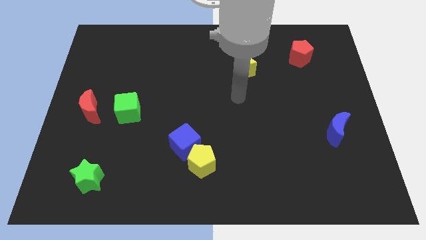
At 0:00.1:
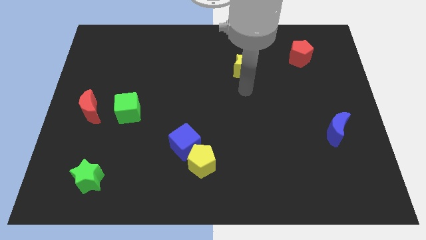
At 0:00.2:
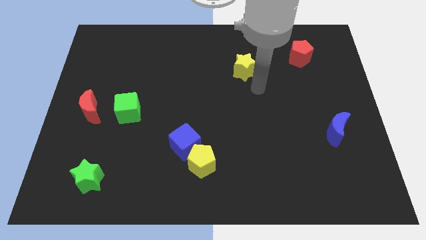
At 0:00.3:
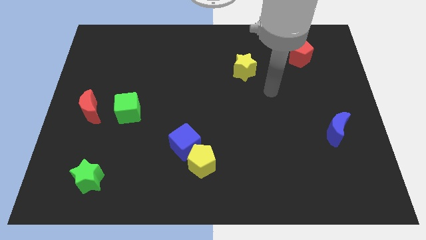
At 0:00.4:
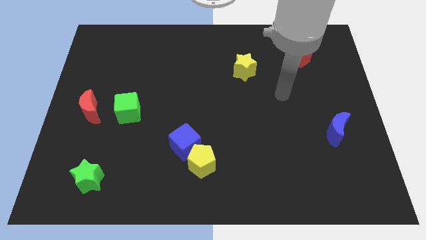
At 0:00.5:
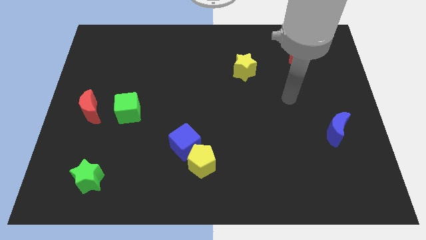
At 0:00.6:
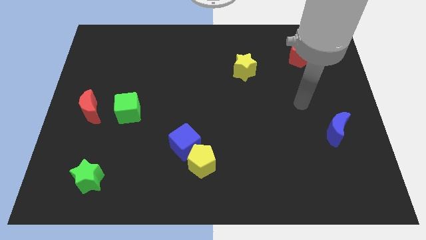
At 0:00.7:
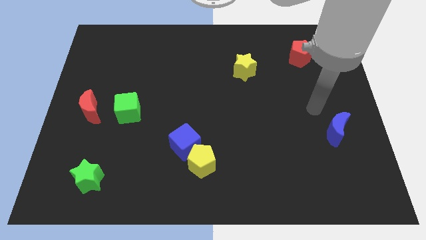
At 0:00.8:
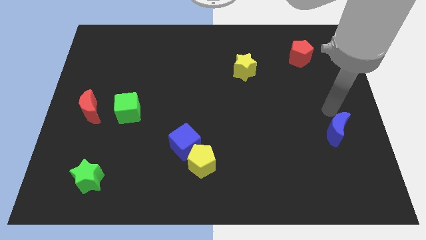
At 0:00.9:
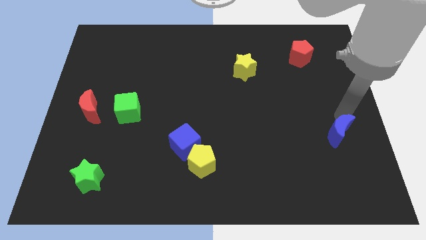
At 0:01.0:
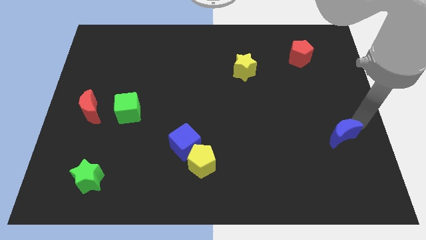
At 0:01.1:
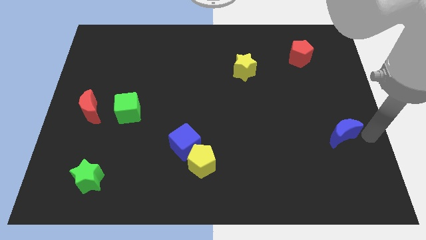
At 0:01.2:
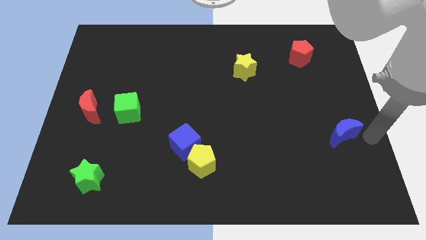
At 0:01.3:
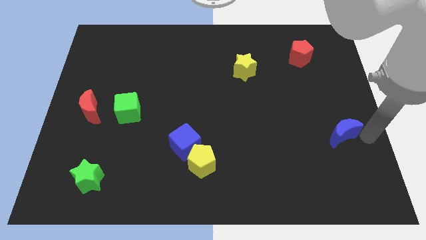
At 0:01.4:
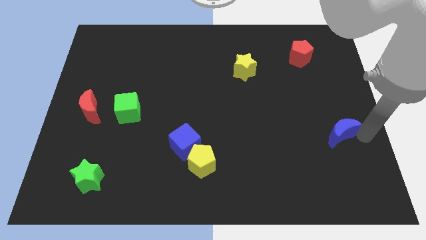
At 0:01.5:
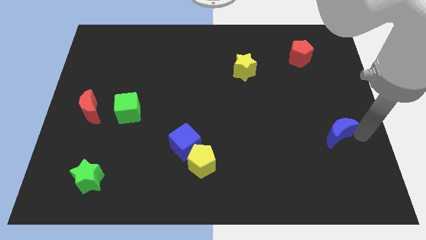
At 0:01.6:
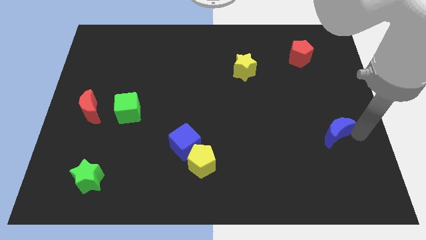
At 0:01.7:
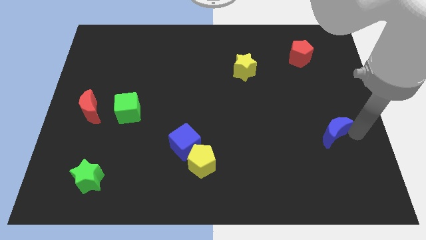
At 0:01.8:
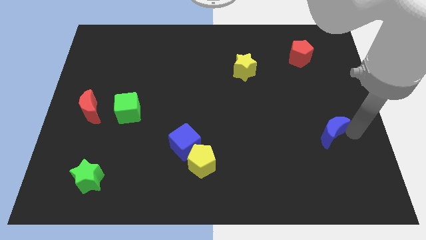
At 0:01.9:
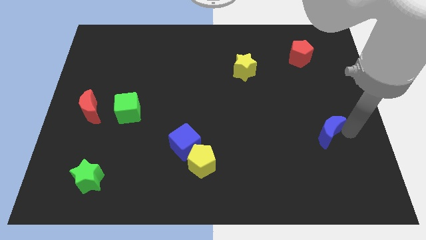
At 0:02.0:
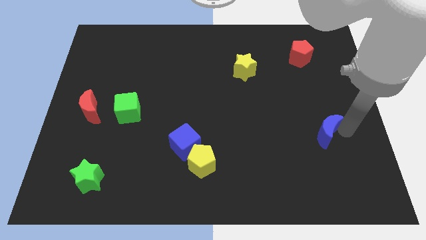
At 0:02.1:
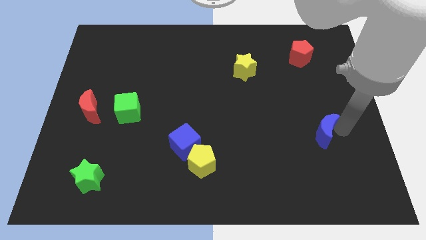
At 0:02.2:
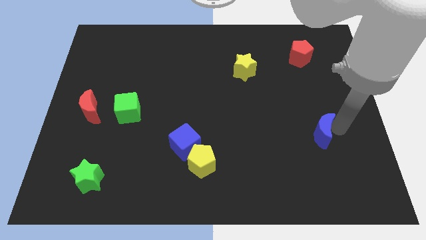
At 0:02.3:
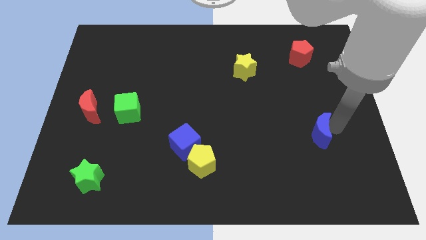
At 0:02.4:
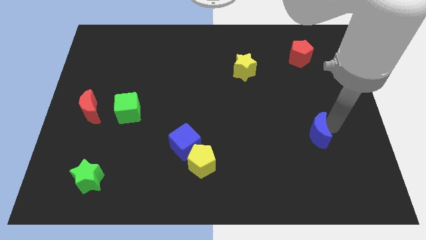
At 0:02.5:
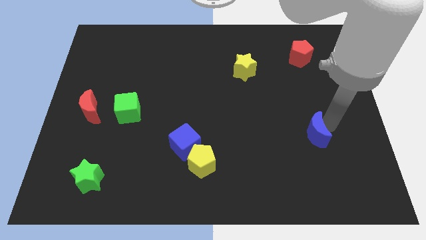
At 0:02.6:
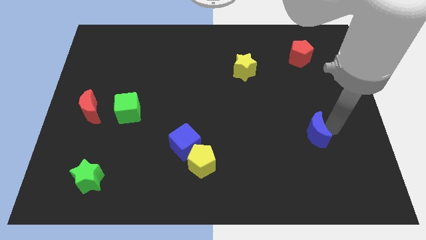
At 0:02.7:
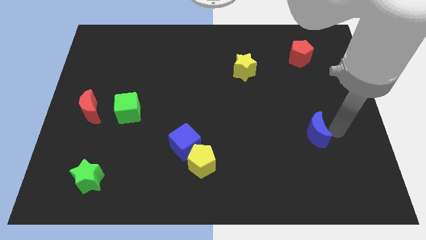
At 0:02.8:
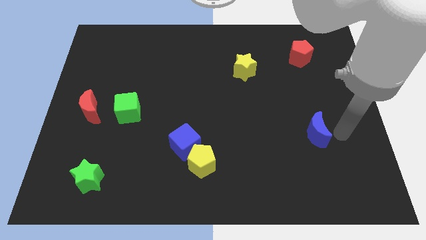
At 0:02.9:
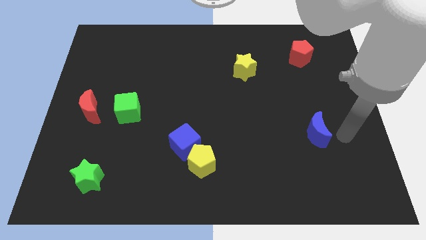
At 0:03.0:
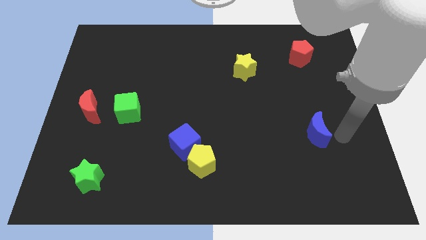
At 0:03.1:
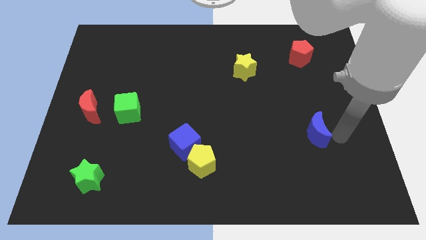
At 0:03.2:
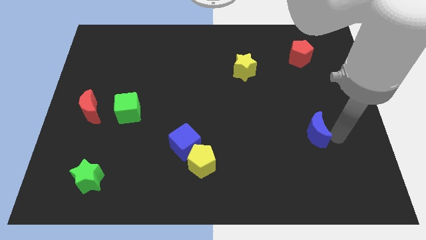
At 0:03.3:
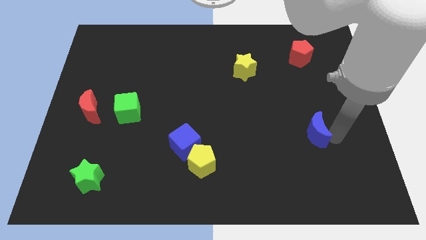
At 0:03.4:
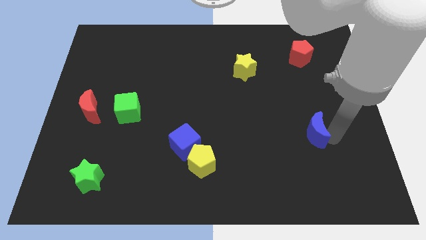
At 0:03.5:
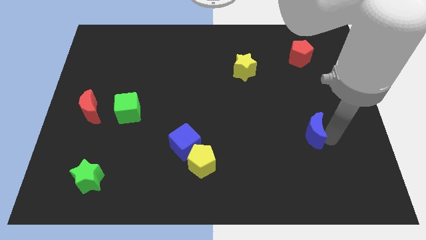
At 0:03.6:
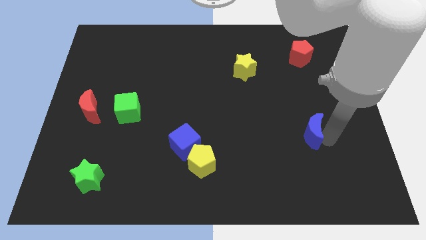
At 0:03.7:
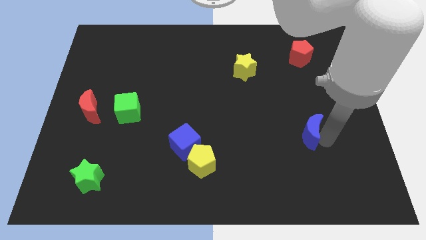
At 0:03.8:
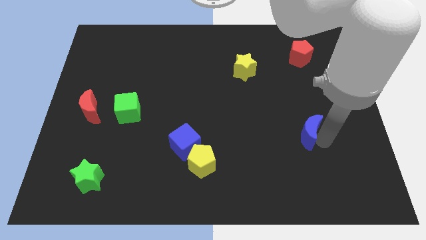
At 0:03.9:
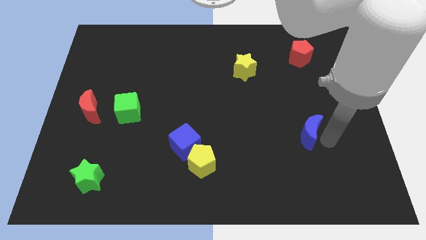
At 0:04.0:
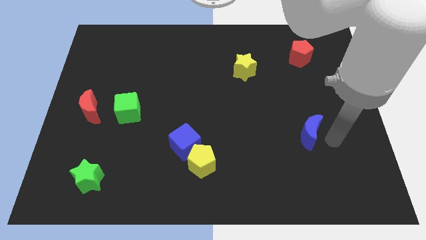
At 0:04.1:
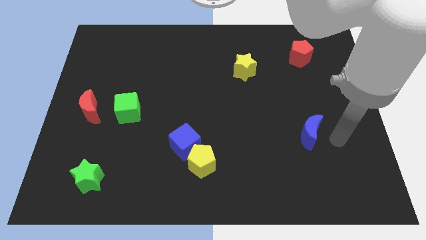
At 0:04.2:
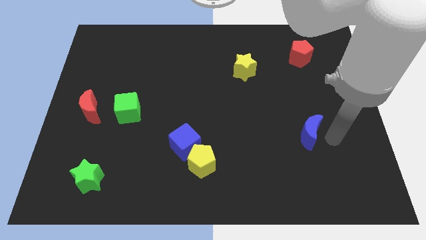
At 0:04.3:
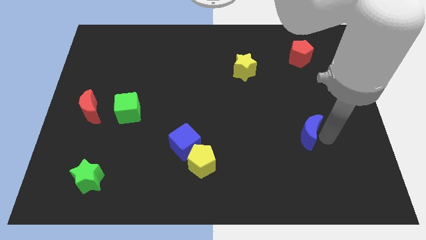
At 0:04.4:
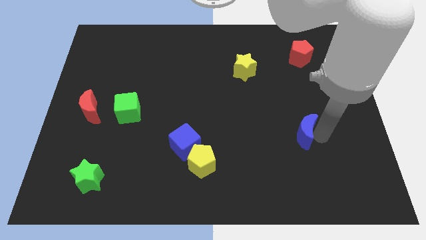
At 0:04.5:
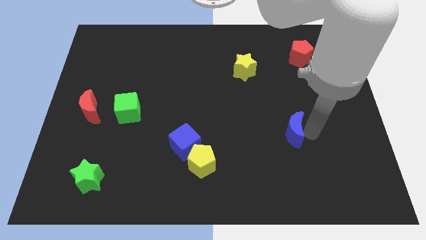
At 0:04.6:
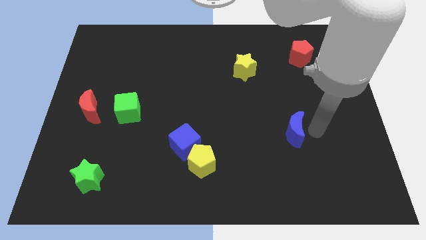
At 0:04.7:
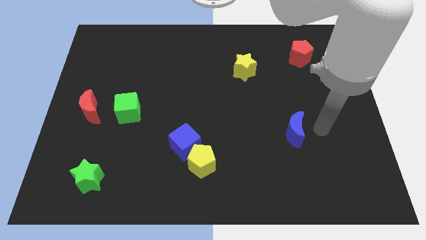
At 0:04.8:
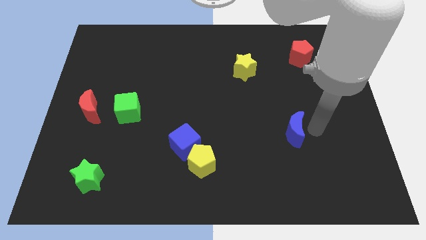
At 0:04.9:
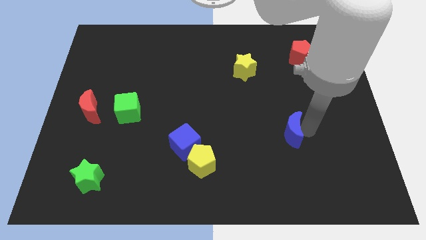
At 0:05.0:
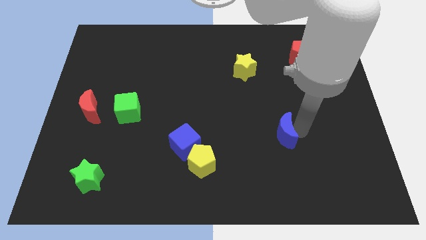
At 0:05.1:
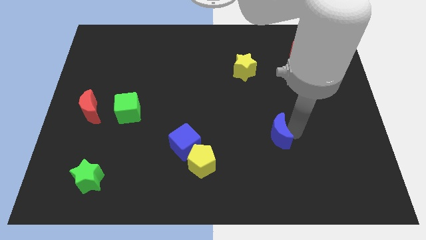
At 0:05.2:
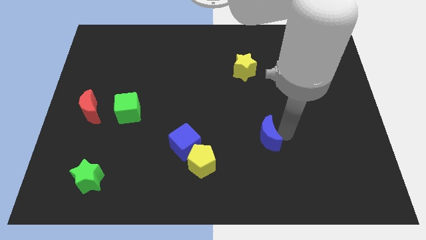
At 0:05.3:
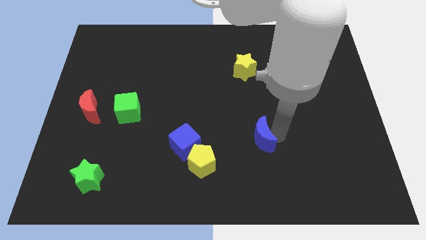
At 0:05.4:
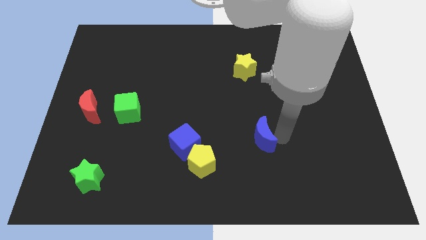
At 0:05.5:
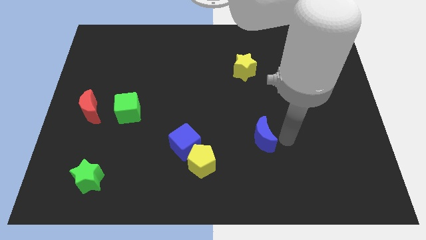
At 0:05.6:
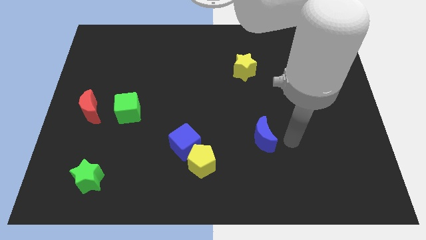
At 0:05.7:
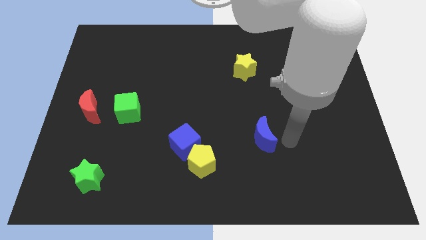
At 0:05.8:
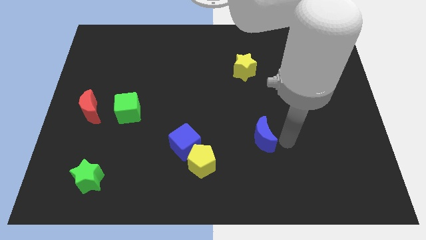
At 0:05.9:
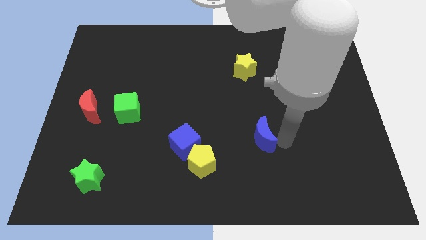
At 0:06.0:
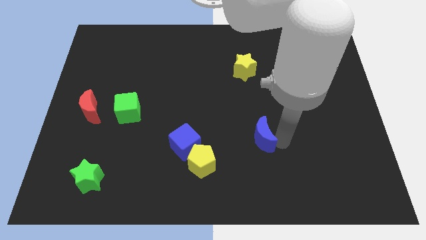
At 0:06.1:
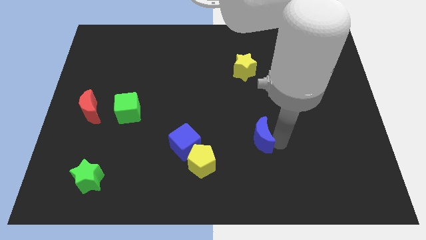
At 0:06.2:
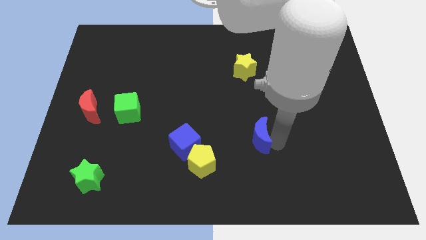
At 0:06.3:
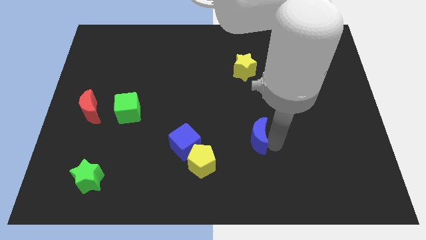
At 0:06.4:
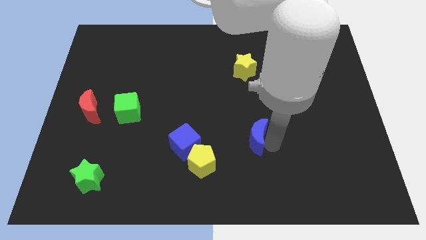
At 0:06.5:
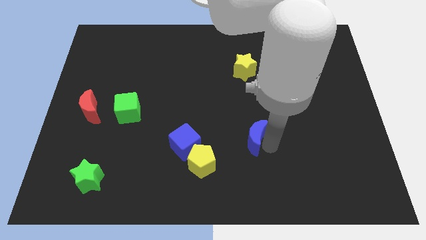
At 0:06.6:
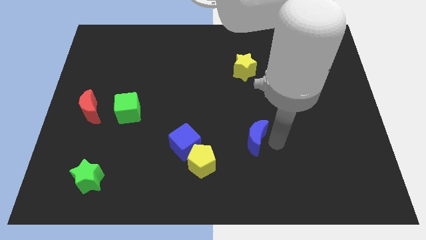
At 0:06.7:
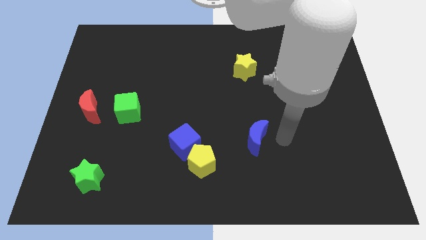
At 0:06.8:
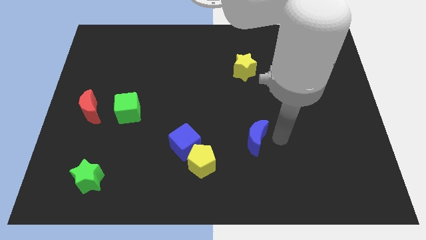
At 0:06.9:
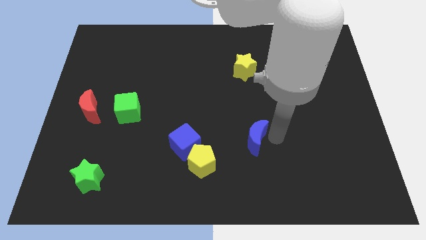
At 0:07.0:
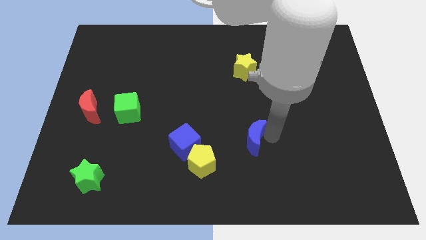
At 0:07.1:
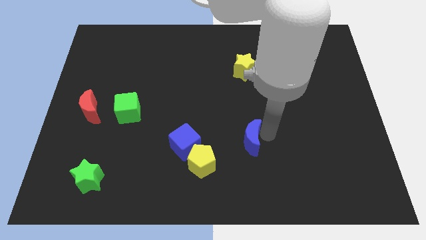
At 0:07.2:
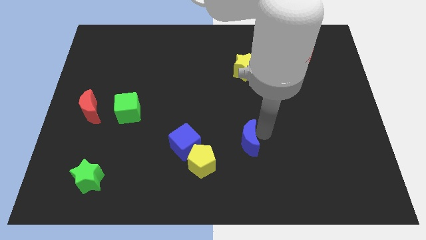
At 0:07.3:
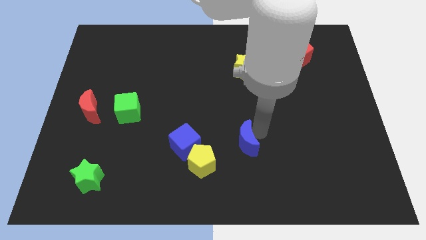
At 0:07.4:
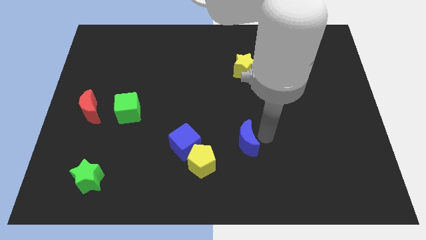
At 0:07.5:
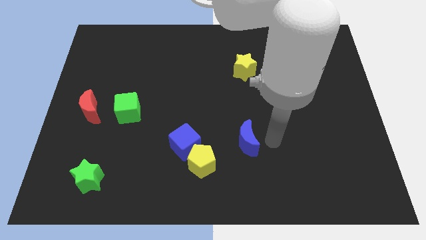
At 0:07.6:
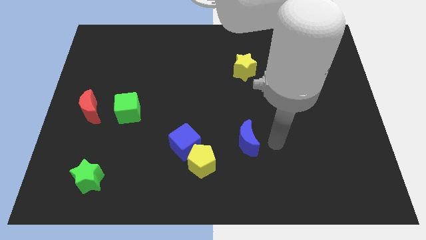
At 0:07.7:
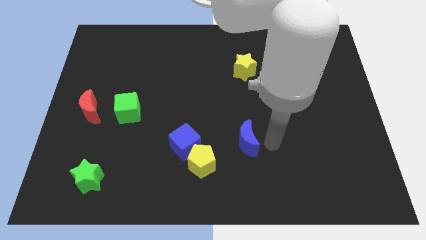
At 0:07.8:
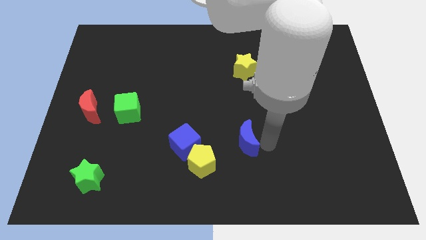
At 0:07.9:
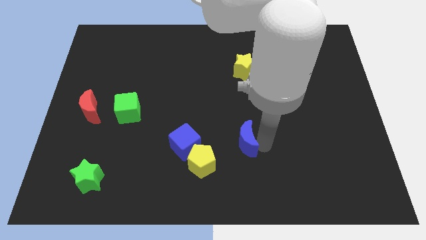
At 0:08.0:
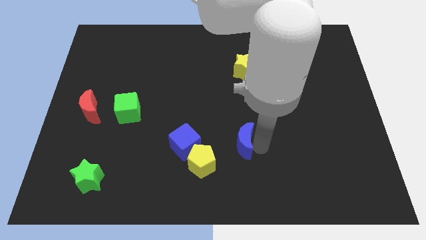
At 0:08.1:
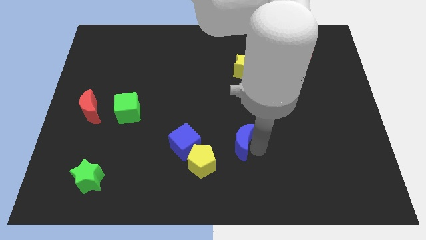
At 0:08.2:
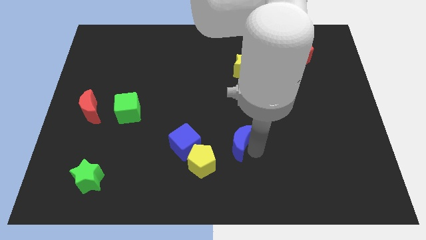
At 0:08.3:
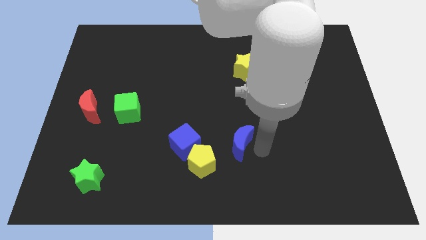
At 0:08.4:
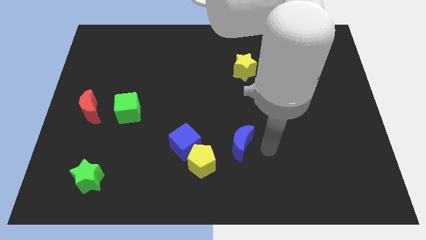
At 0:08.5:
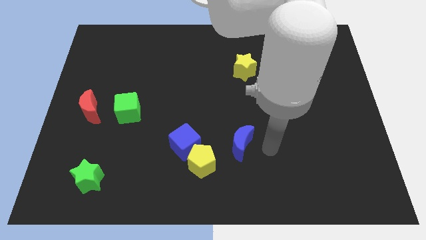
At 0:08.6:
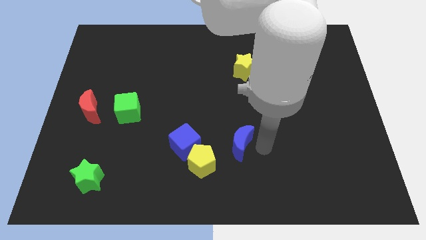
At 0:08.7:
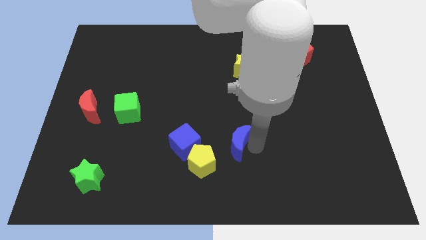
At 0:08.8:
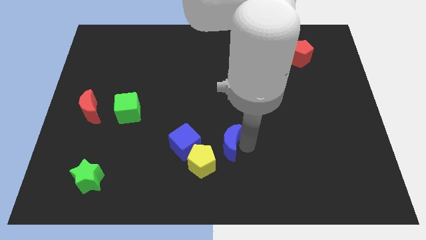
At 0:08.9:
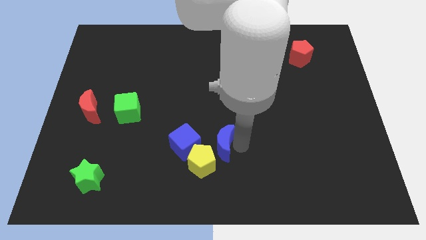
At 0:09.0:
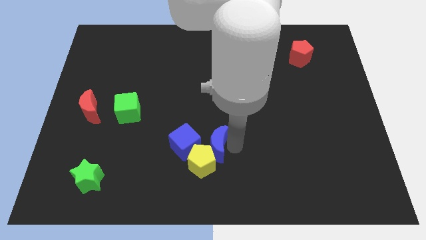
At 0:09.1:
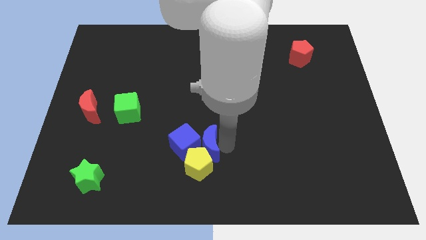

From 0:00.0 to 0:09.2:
slide the blue moon to the blue cube
